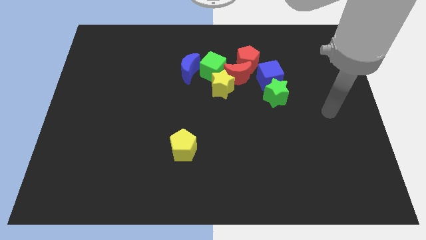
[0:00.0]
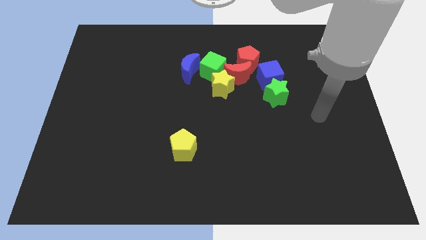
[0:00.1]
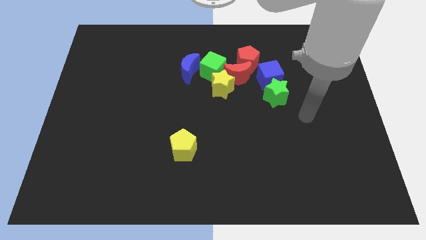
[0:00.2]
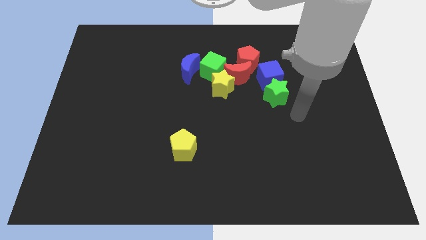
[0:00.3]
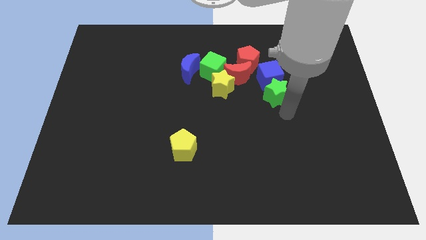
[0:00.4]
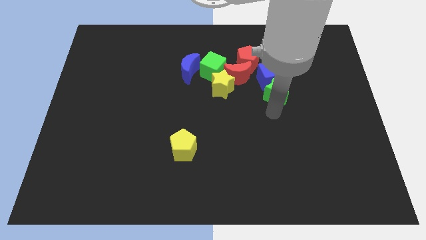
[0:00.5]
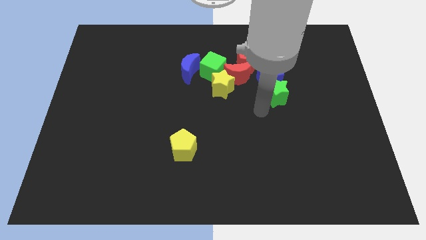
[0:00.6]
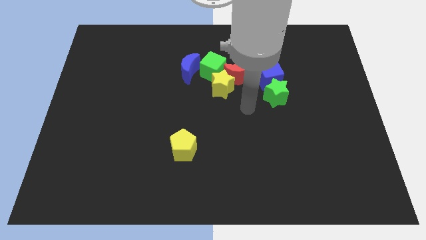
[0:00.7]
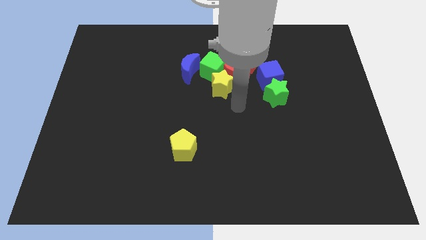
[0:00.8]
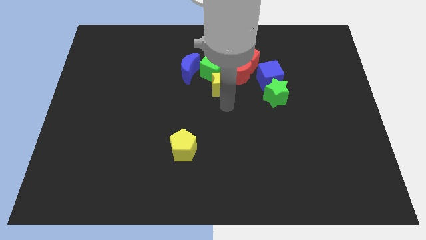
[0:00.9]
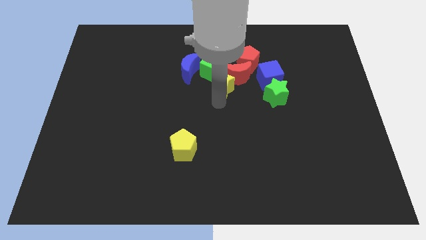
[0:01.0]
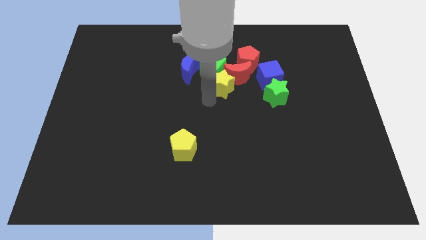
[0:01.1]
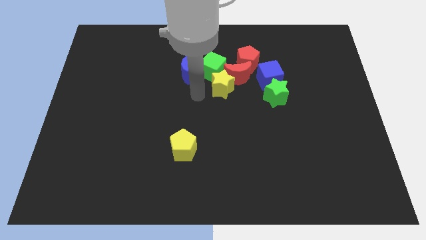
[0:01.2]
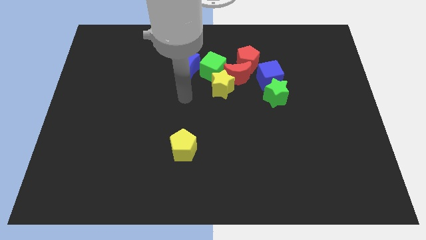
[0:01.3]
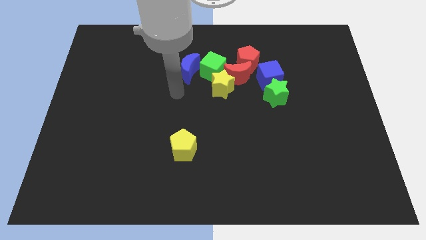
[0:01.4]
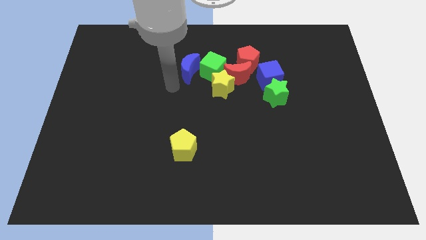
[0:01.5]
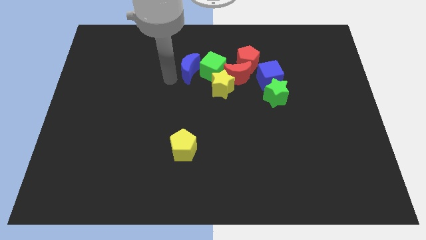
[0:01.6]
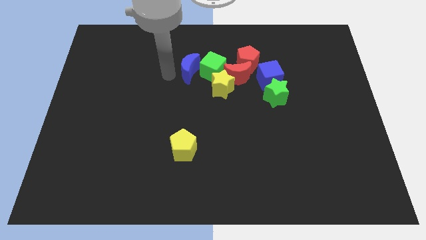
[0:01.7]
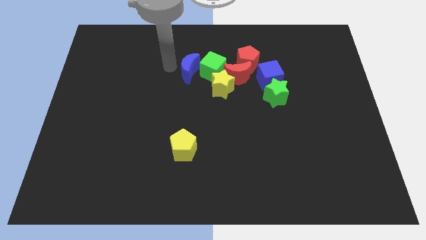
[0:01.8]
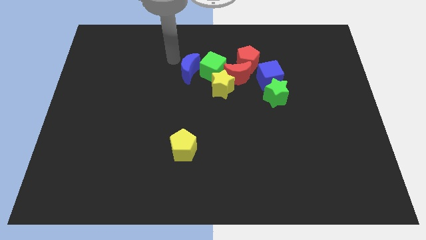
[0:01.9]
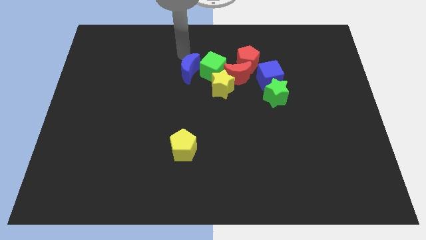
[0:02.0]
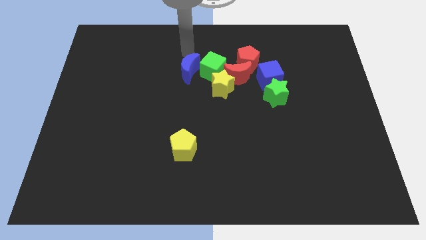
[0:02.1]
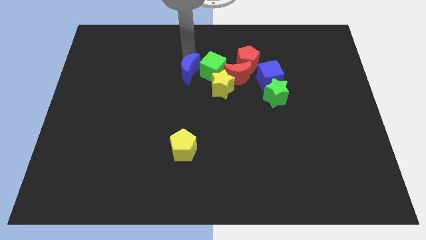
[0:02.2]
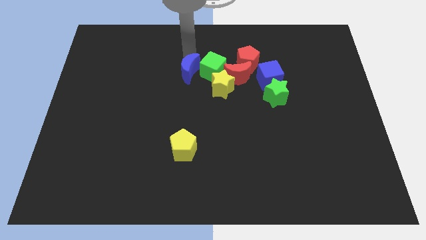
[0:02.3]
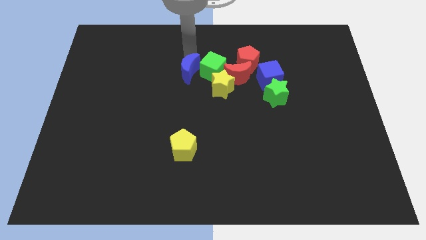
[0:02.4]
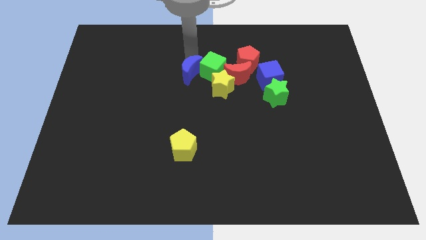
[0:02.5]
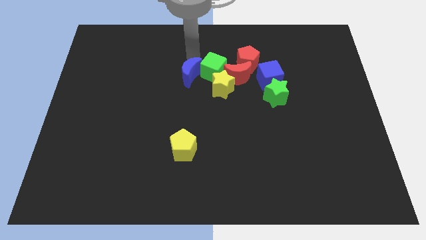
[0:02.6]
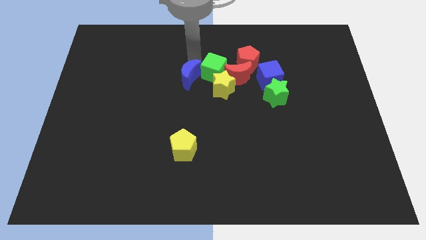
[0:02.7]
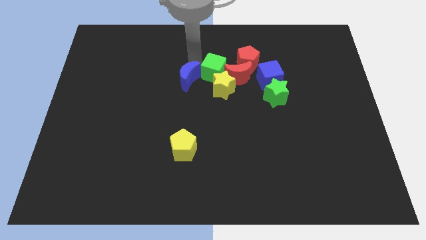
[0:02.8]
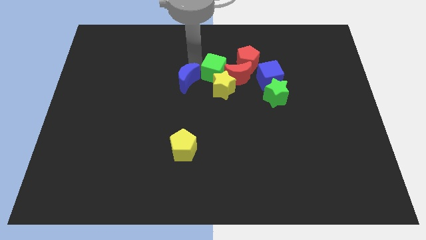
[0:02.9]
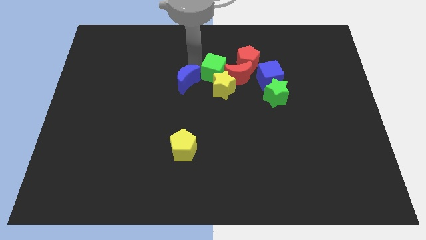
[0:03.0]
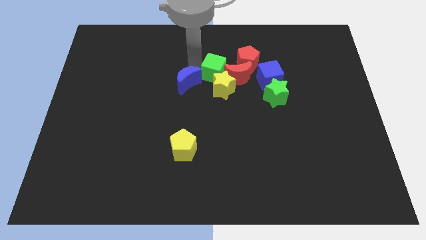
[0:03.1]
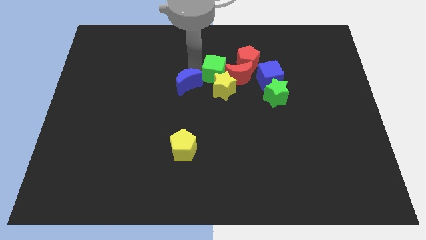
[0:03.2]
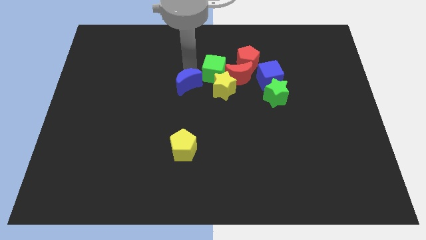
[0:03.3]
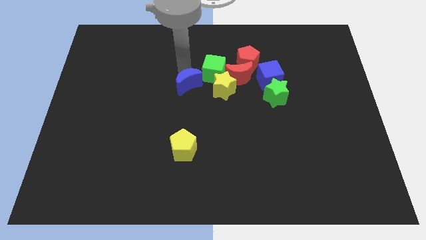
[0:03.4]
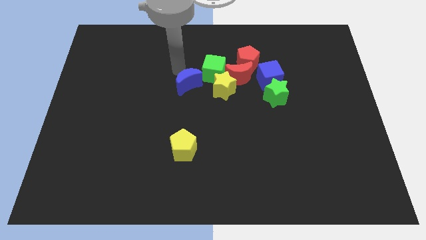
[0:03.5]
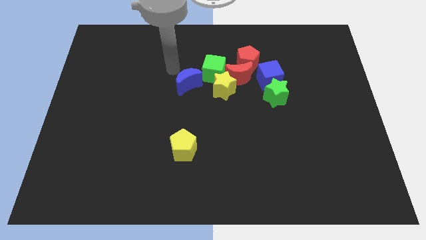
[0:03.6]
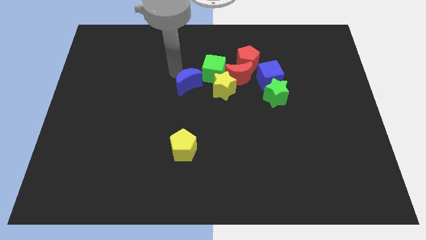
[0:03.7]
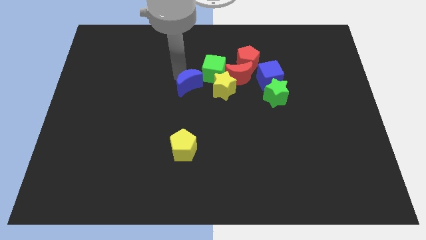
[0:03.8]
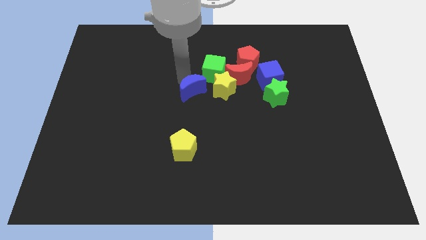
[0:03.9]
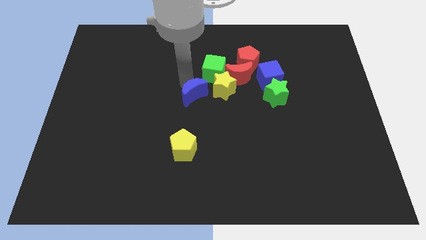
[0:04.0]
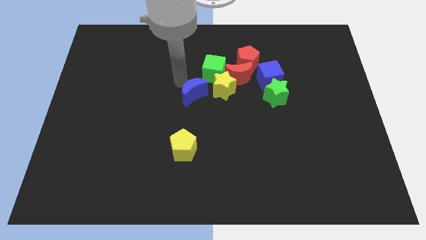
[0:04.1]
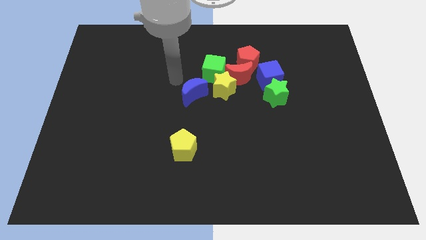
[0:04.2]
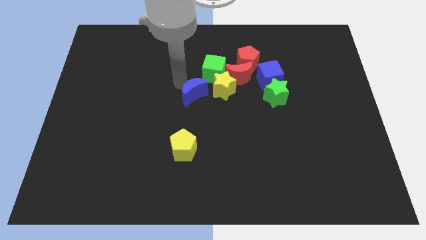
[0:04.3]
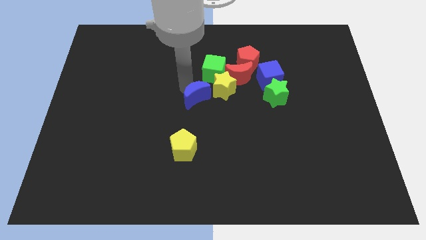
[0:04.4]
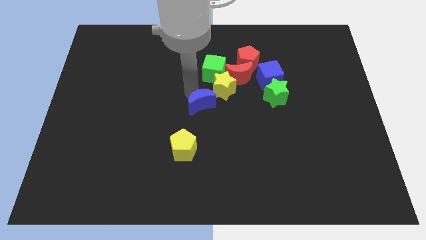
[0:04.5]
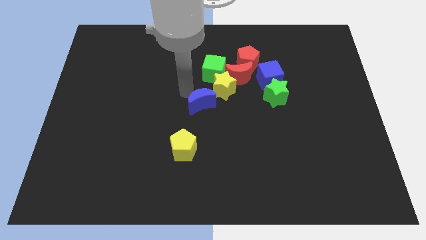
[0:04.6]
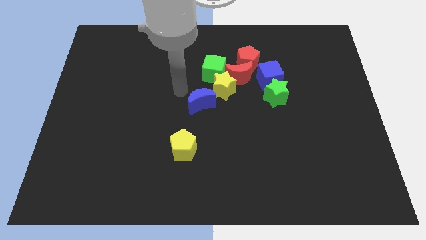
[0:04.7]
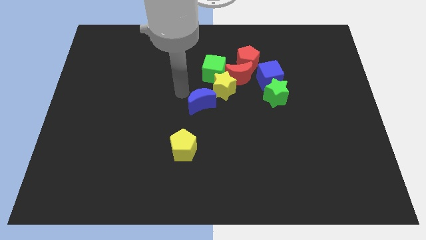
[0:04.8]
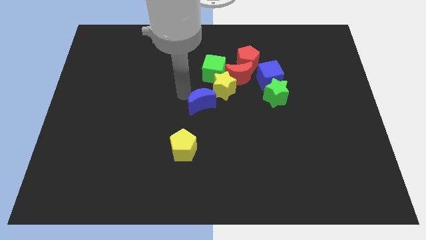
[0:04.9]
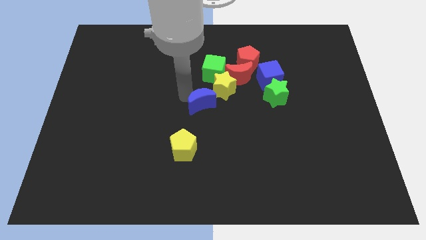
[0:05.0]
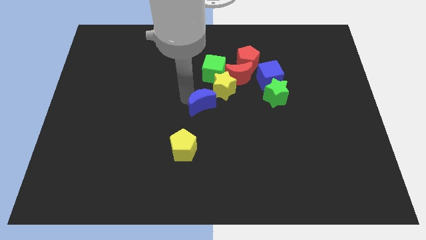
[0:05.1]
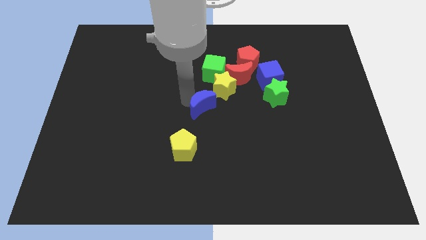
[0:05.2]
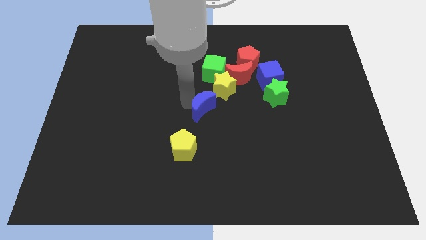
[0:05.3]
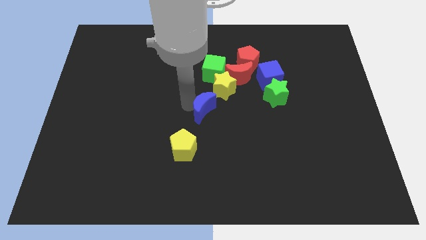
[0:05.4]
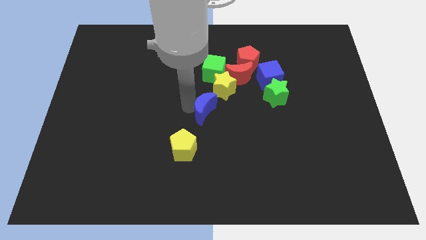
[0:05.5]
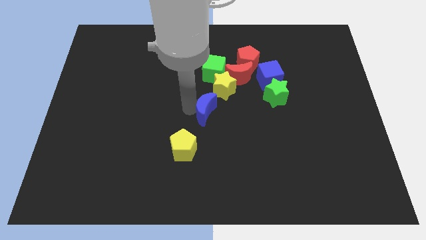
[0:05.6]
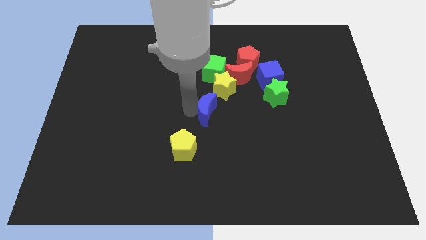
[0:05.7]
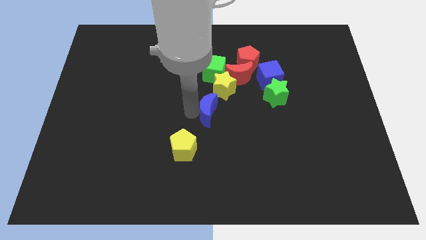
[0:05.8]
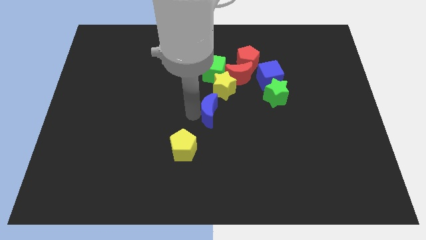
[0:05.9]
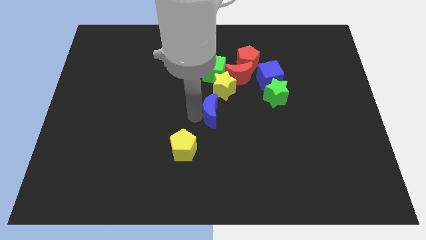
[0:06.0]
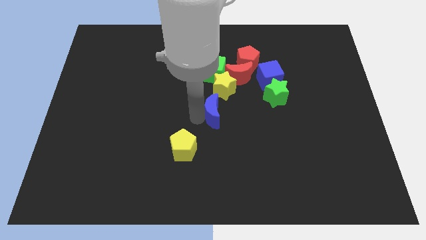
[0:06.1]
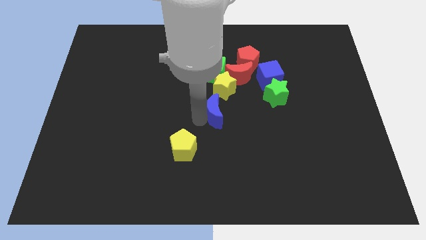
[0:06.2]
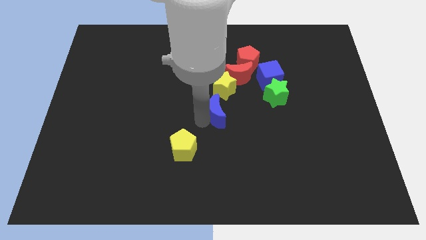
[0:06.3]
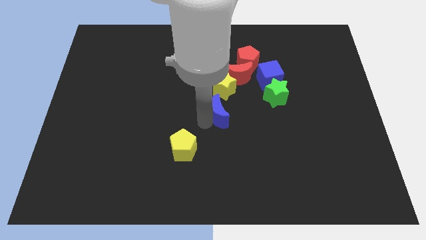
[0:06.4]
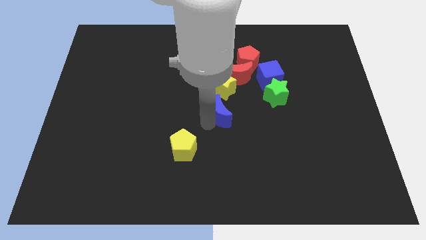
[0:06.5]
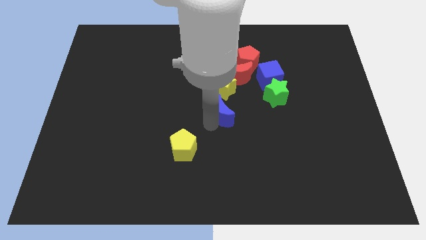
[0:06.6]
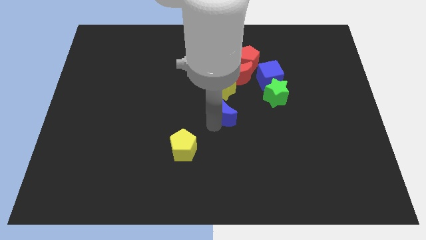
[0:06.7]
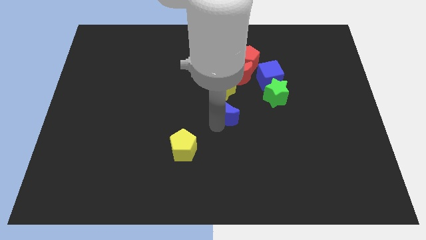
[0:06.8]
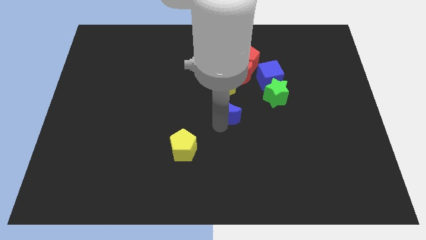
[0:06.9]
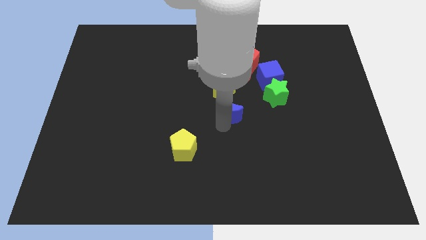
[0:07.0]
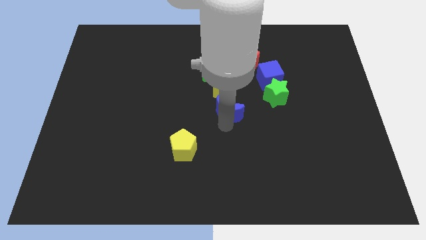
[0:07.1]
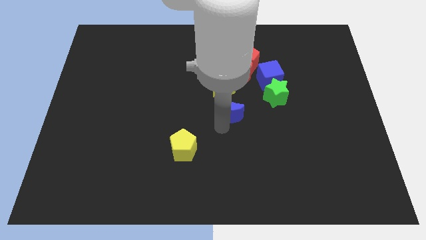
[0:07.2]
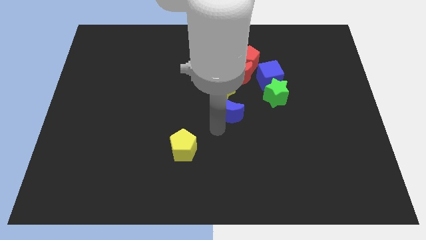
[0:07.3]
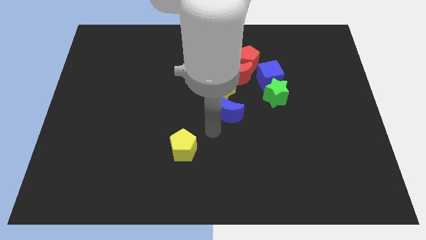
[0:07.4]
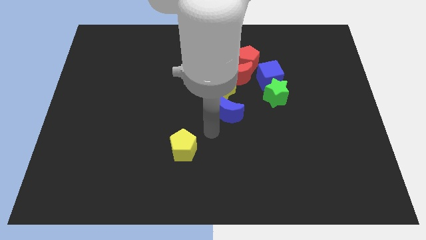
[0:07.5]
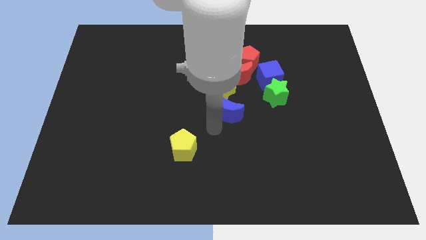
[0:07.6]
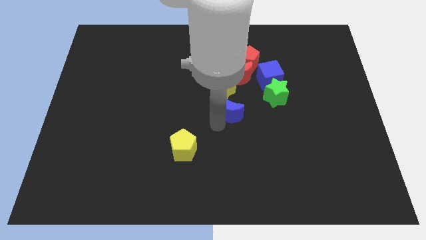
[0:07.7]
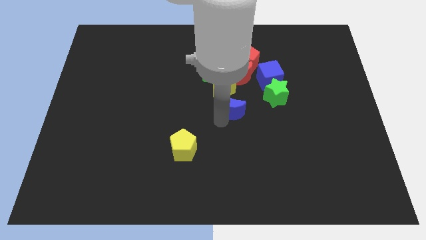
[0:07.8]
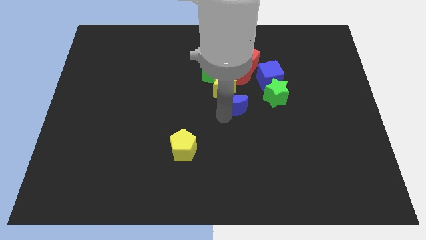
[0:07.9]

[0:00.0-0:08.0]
move the blue moon diagonally down and to the left of the blue cube
